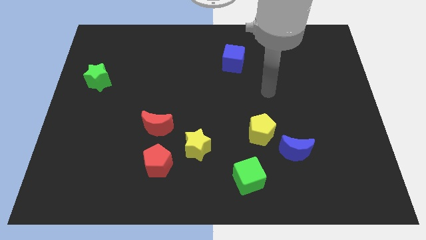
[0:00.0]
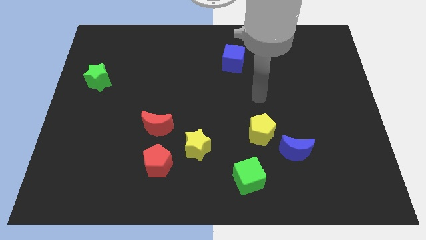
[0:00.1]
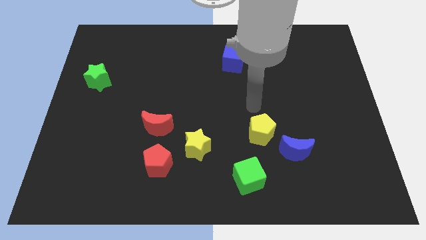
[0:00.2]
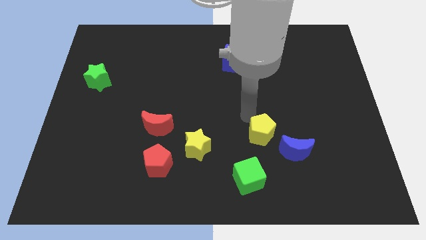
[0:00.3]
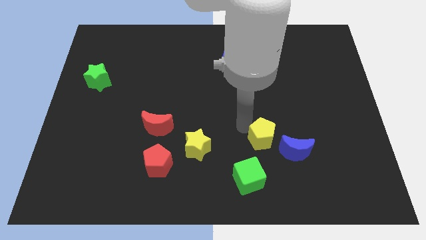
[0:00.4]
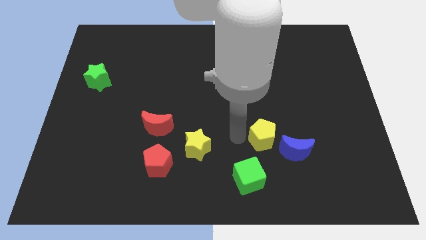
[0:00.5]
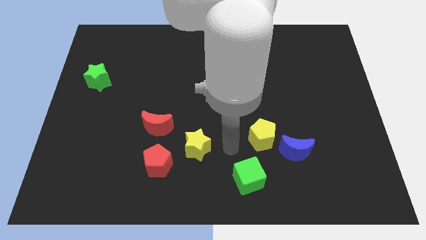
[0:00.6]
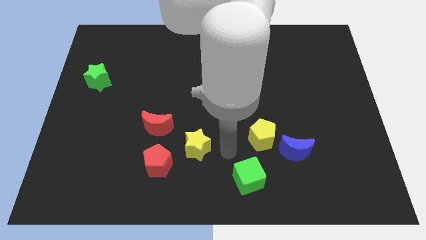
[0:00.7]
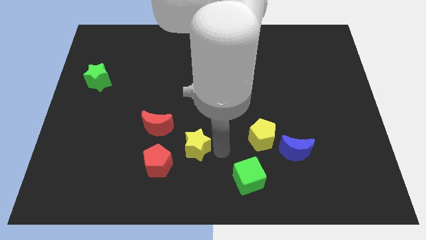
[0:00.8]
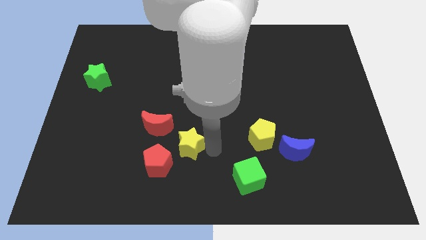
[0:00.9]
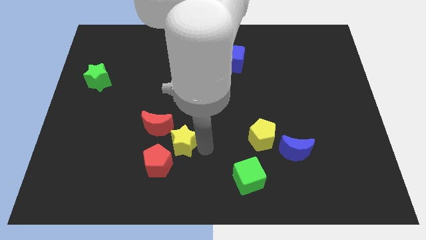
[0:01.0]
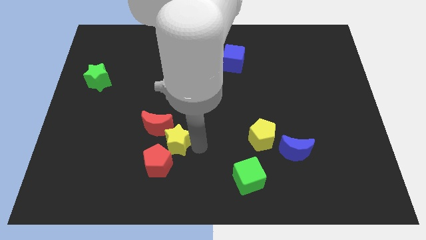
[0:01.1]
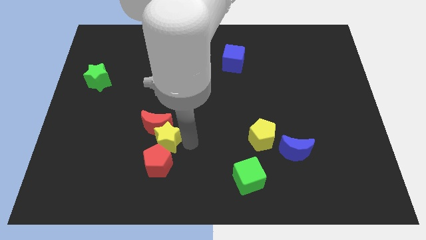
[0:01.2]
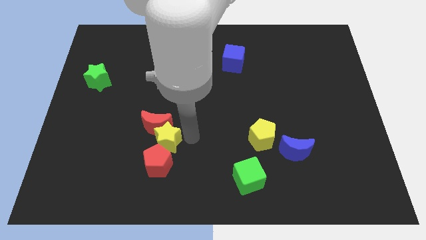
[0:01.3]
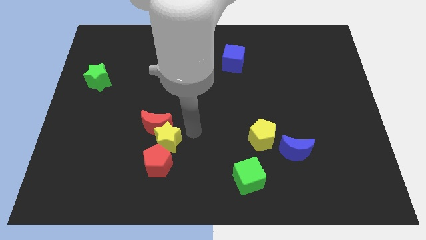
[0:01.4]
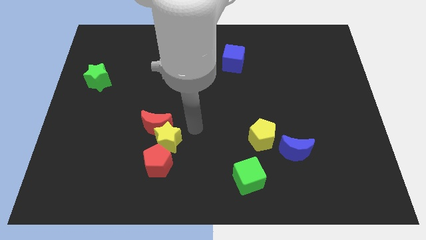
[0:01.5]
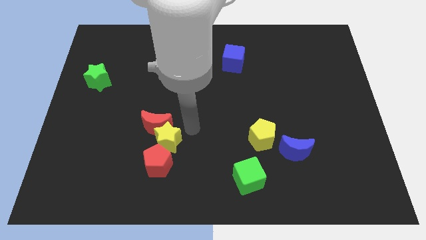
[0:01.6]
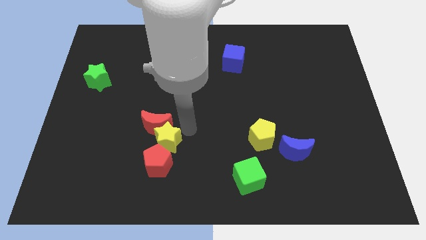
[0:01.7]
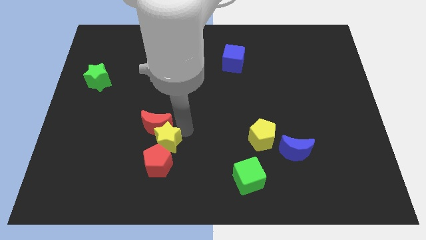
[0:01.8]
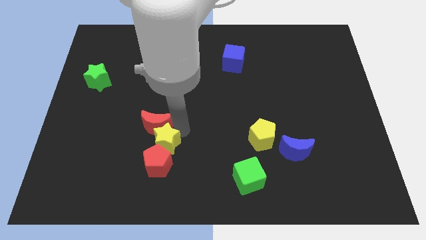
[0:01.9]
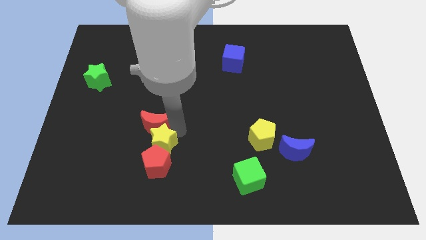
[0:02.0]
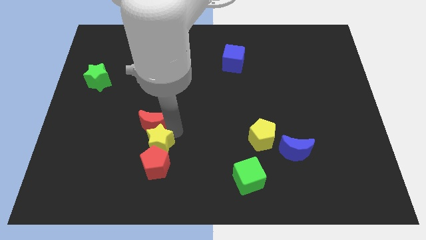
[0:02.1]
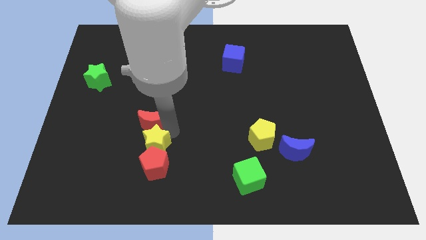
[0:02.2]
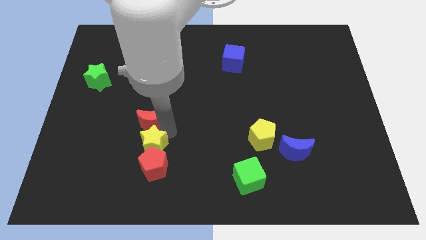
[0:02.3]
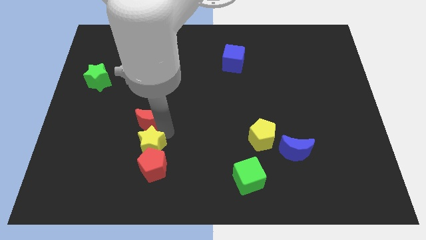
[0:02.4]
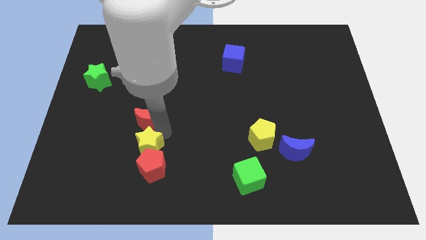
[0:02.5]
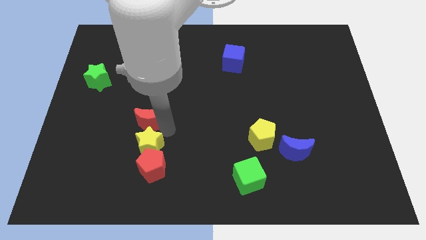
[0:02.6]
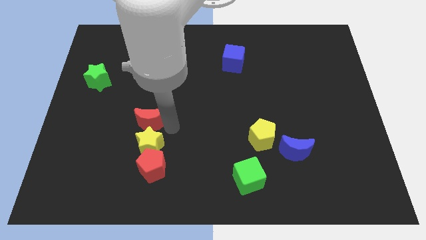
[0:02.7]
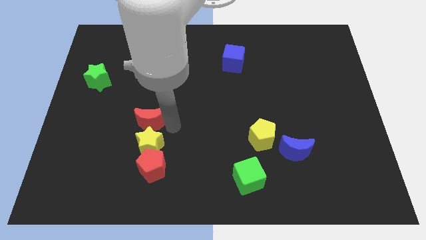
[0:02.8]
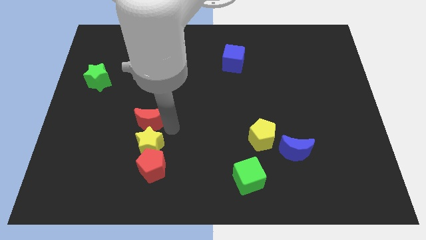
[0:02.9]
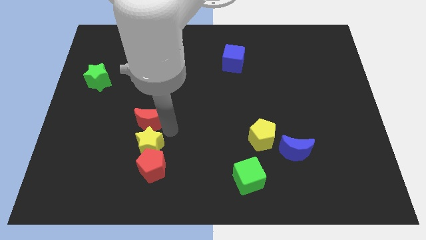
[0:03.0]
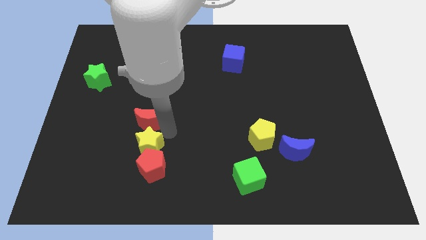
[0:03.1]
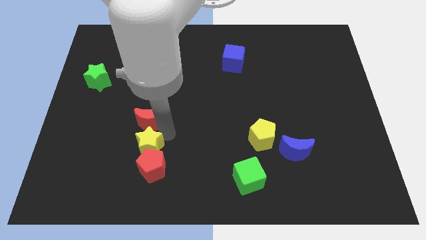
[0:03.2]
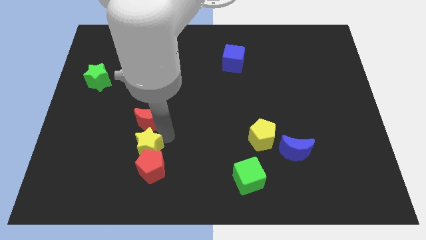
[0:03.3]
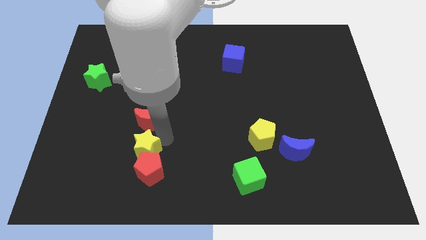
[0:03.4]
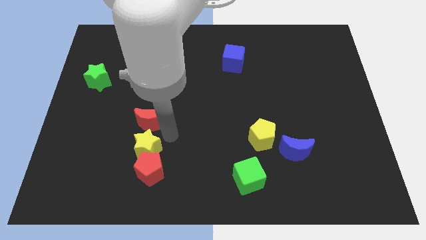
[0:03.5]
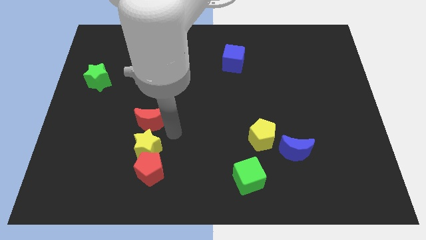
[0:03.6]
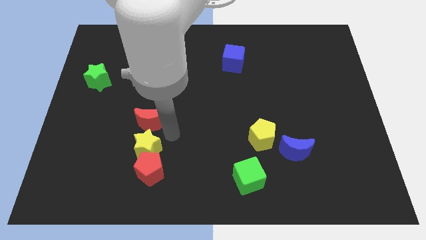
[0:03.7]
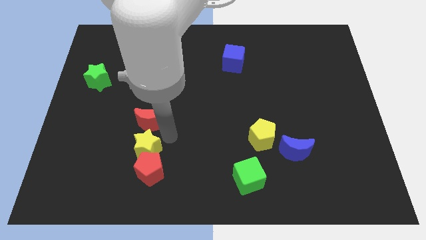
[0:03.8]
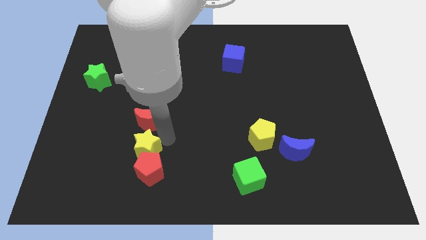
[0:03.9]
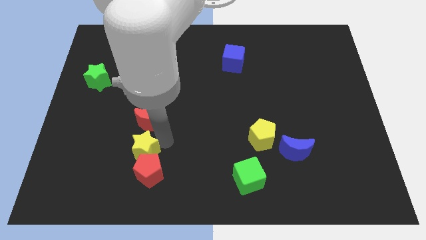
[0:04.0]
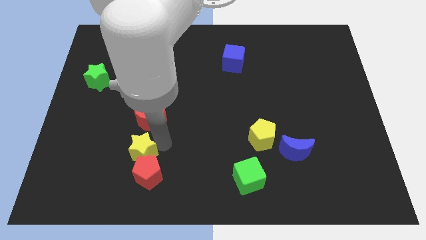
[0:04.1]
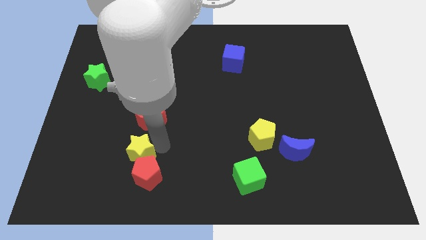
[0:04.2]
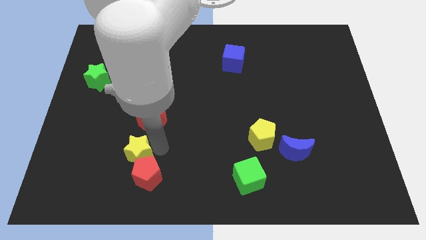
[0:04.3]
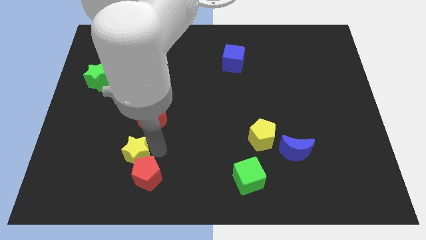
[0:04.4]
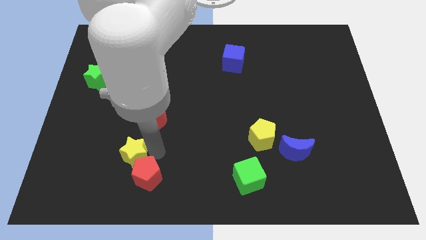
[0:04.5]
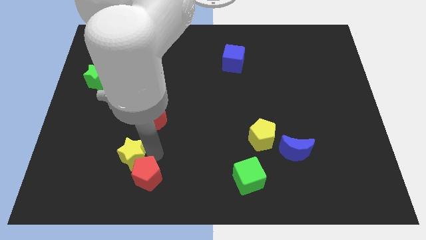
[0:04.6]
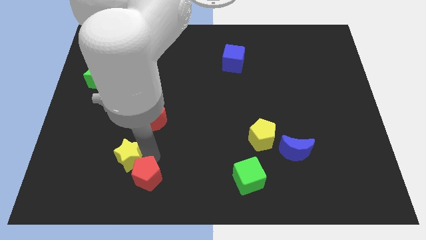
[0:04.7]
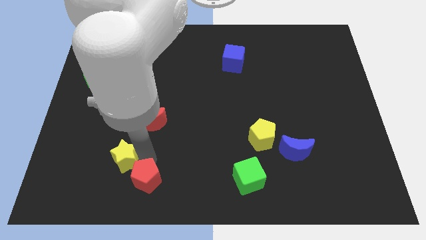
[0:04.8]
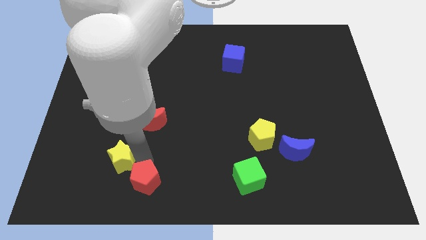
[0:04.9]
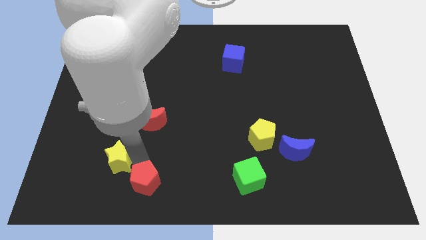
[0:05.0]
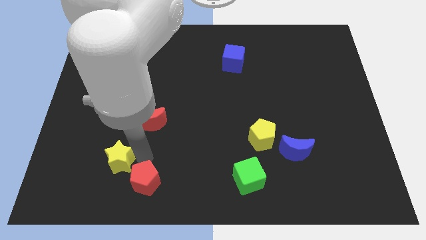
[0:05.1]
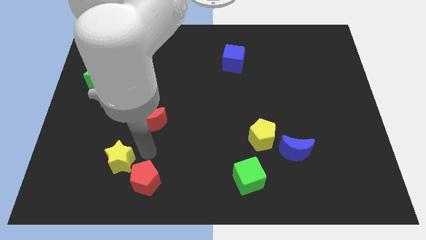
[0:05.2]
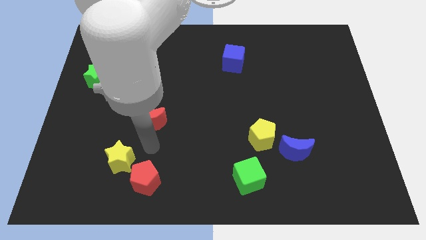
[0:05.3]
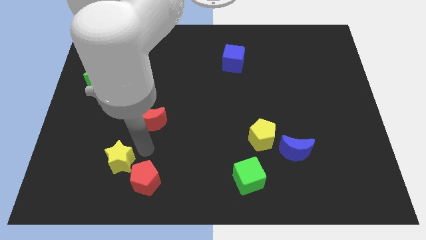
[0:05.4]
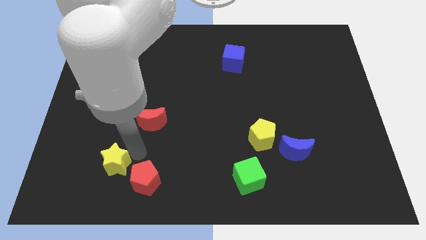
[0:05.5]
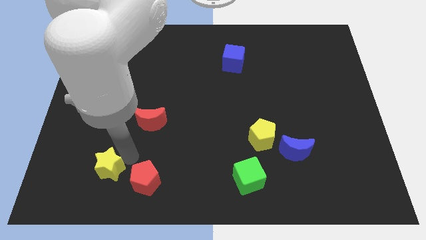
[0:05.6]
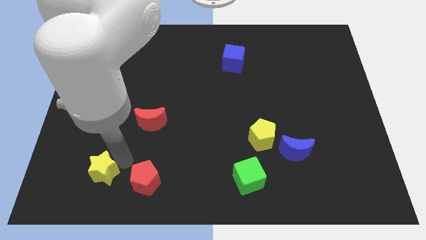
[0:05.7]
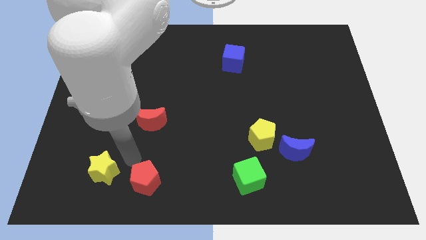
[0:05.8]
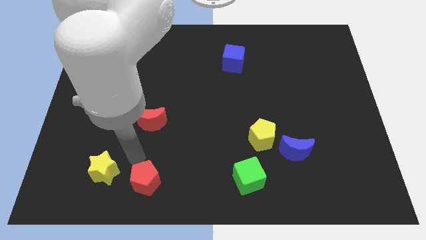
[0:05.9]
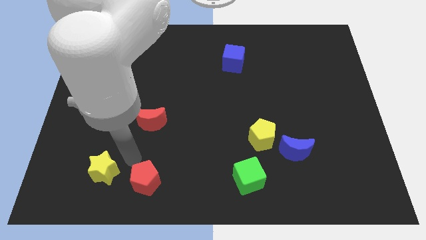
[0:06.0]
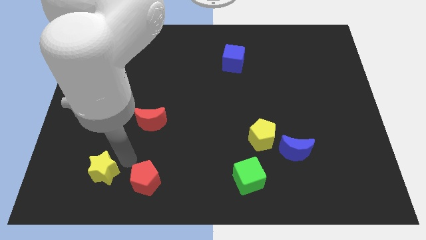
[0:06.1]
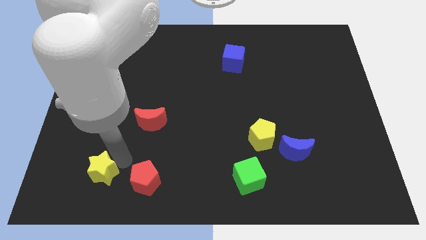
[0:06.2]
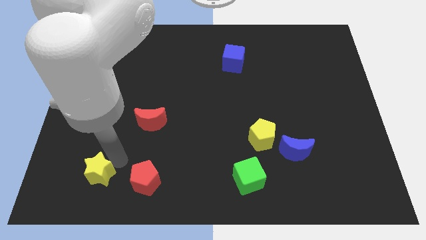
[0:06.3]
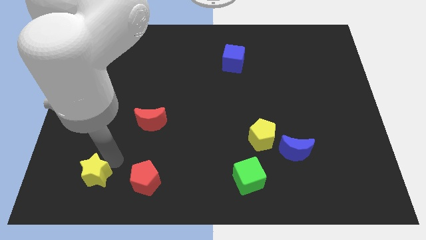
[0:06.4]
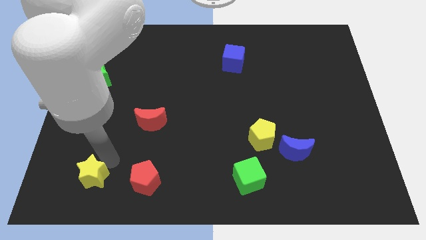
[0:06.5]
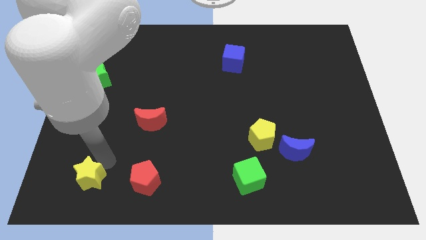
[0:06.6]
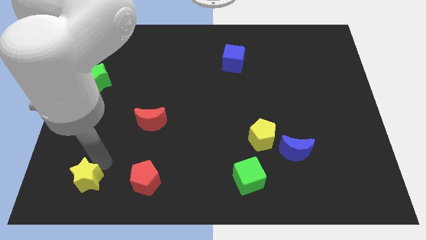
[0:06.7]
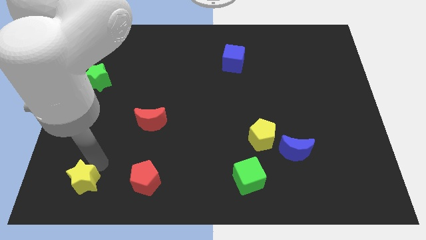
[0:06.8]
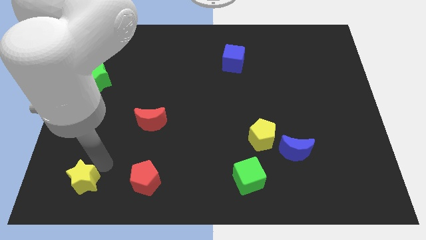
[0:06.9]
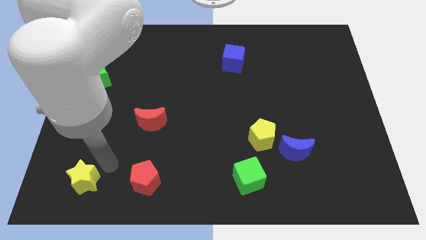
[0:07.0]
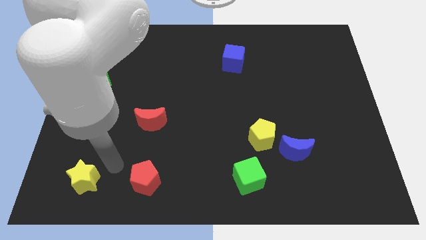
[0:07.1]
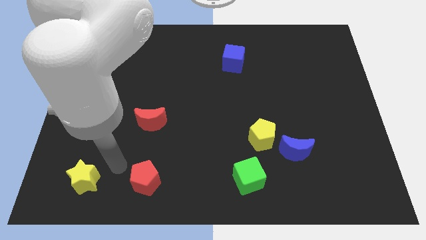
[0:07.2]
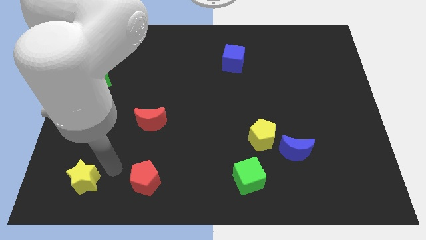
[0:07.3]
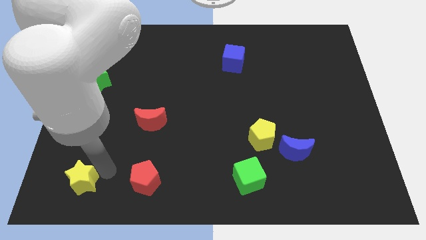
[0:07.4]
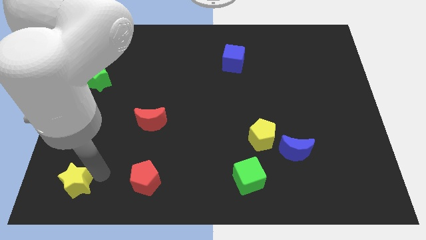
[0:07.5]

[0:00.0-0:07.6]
put the yellow star to the bottom left
